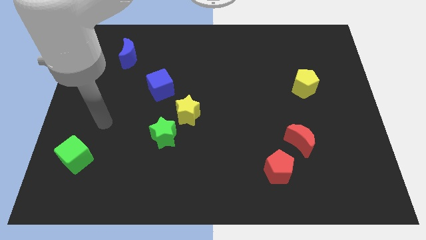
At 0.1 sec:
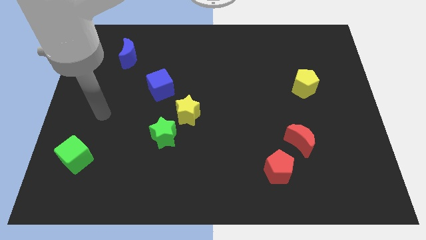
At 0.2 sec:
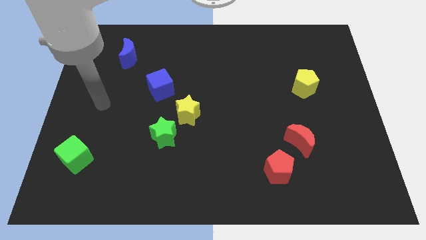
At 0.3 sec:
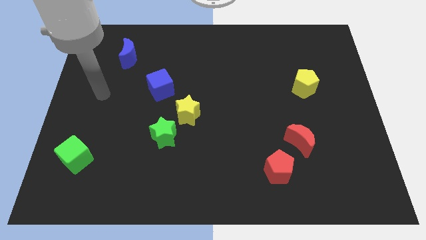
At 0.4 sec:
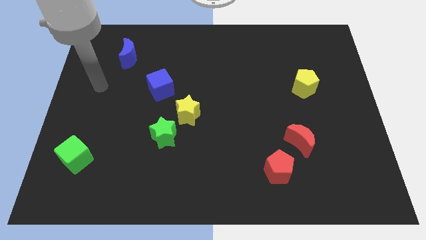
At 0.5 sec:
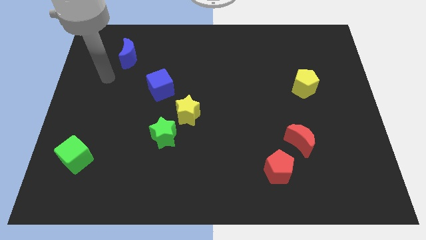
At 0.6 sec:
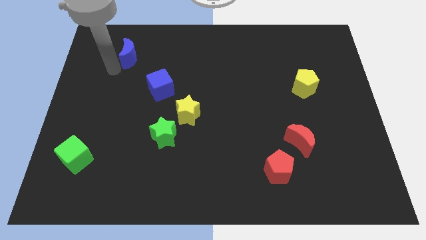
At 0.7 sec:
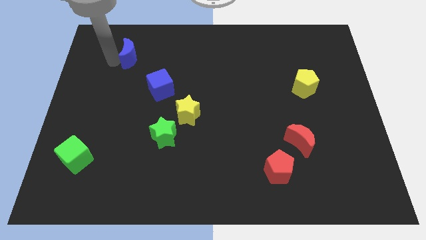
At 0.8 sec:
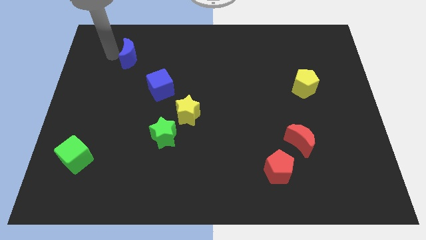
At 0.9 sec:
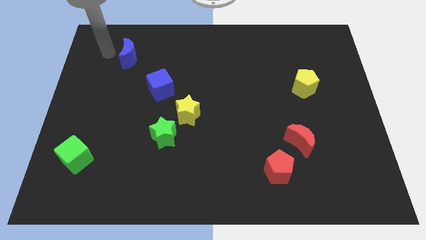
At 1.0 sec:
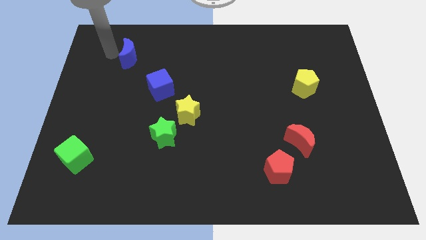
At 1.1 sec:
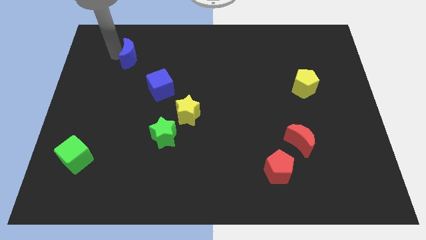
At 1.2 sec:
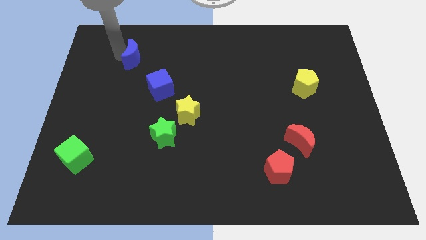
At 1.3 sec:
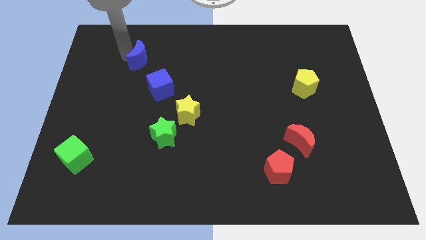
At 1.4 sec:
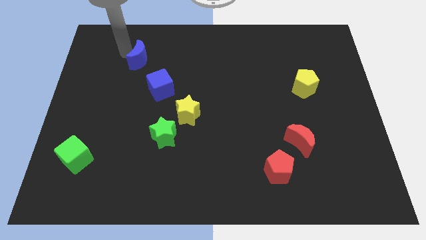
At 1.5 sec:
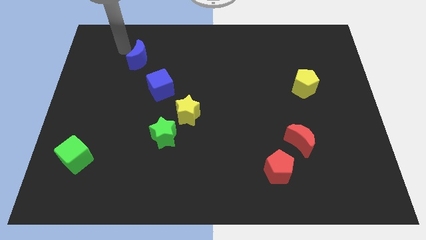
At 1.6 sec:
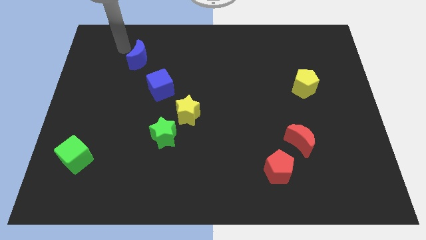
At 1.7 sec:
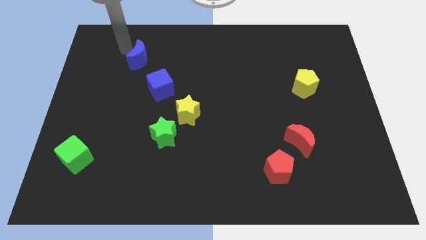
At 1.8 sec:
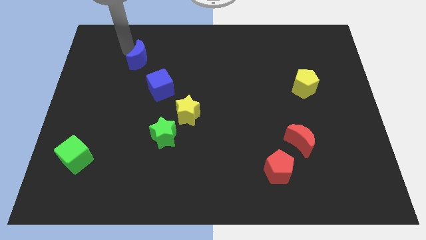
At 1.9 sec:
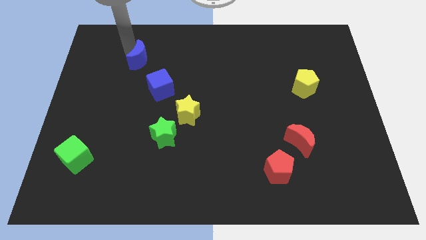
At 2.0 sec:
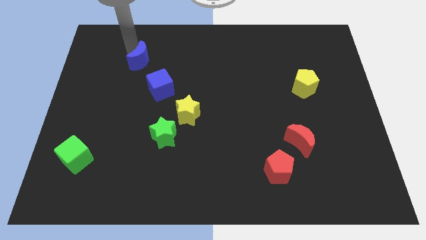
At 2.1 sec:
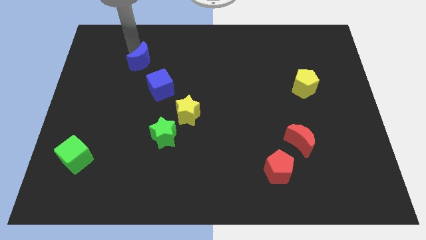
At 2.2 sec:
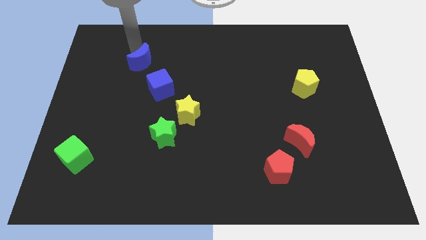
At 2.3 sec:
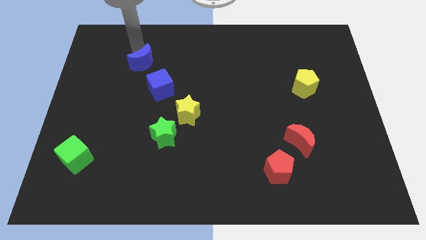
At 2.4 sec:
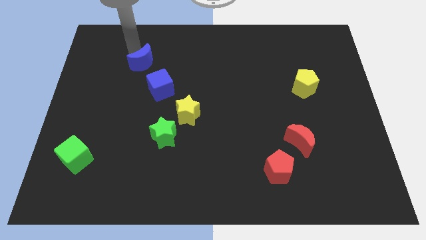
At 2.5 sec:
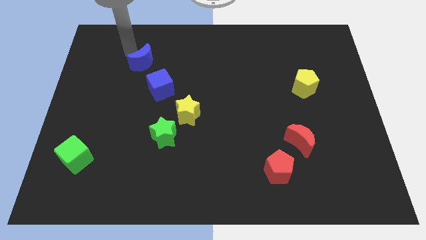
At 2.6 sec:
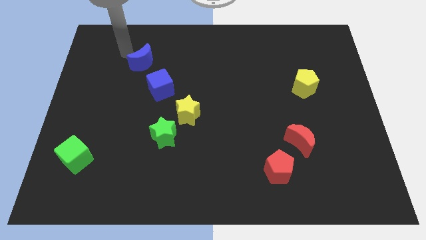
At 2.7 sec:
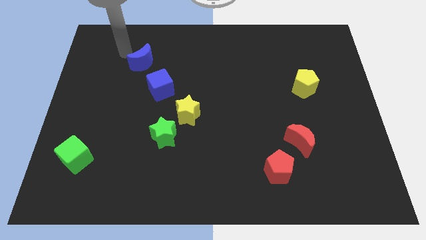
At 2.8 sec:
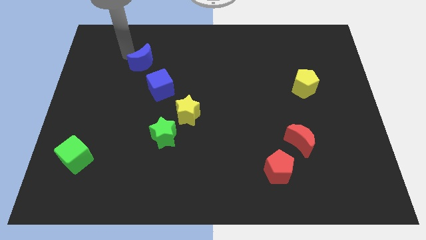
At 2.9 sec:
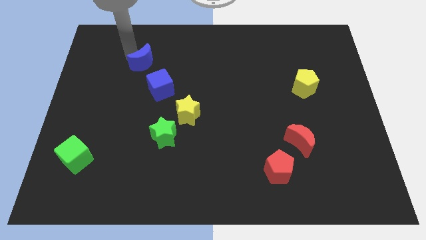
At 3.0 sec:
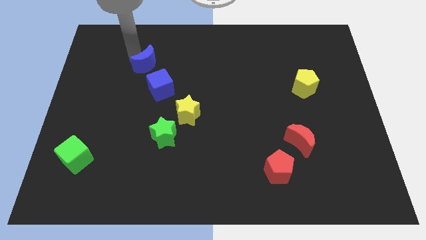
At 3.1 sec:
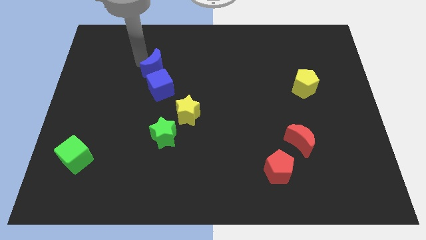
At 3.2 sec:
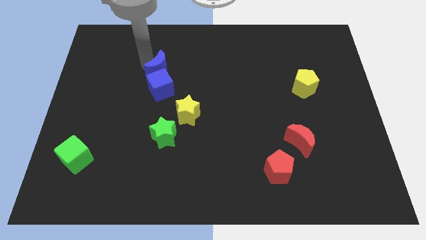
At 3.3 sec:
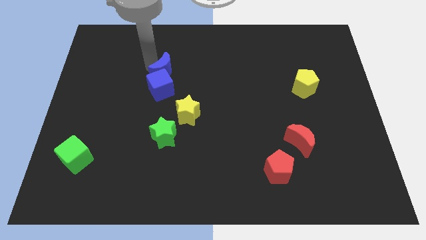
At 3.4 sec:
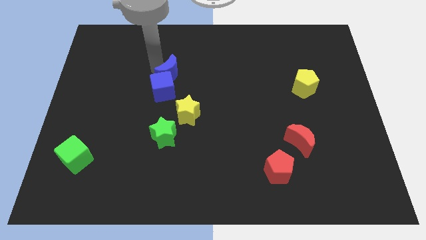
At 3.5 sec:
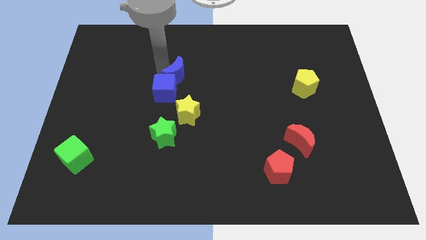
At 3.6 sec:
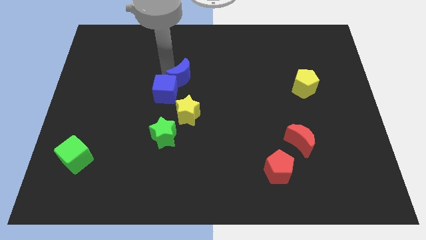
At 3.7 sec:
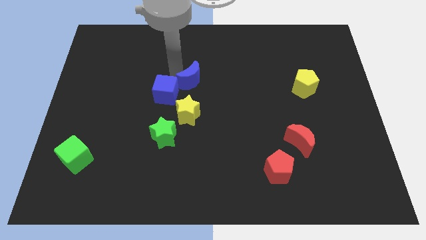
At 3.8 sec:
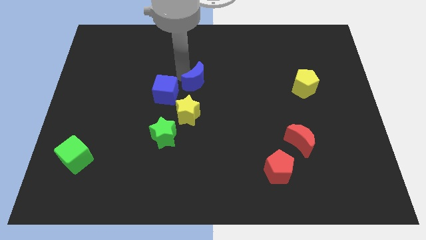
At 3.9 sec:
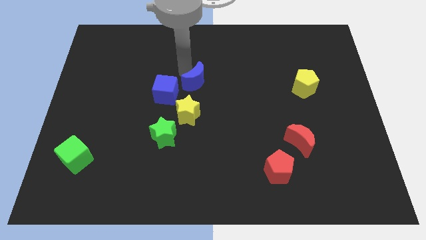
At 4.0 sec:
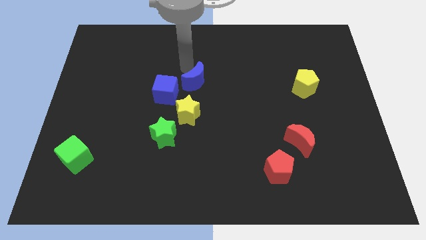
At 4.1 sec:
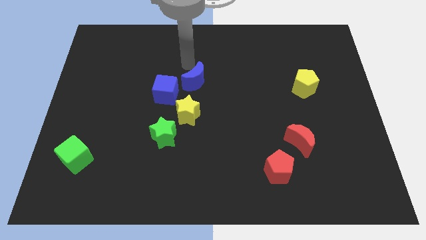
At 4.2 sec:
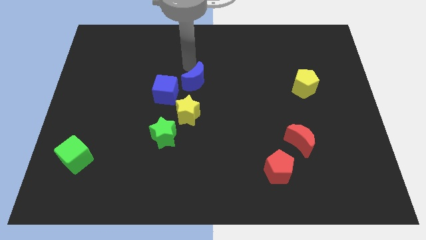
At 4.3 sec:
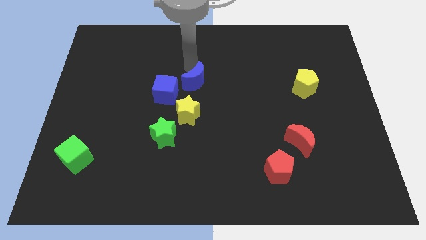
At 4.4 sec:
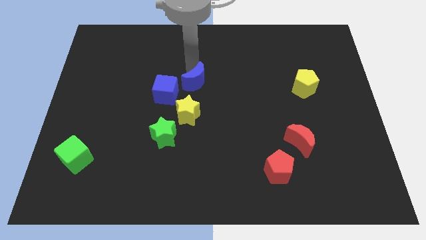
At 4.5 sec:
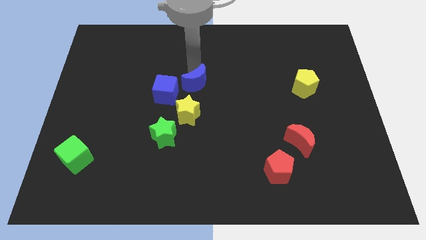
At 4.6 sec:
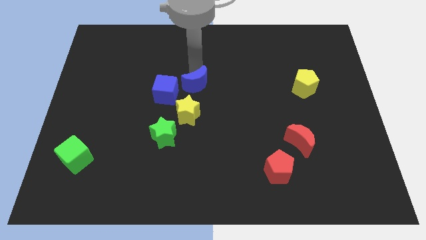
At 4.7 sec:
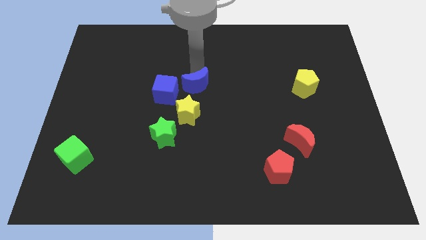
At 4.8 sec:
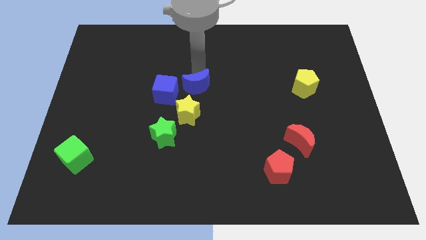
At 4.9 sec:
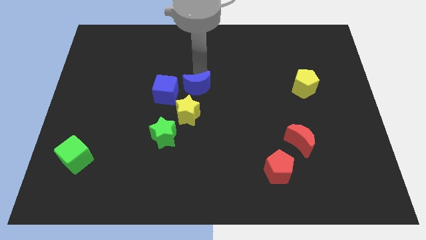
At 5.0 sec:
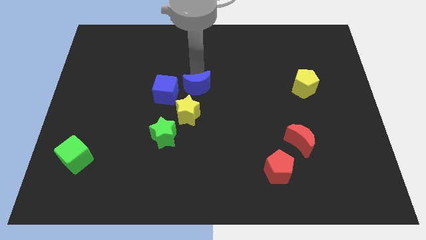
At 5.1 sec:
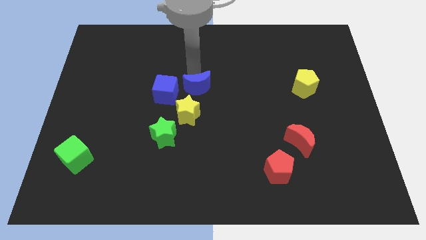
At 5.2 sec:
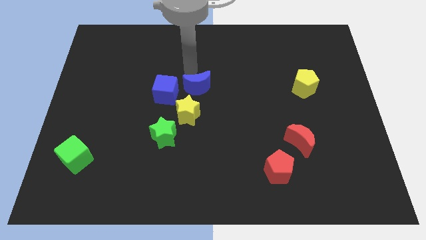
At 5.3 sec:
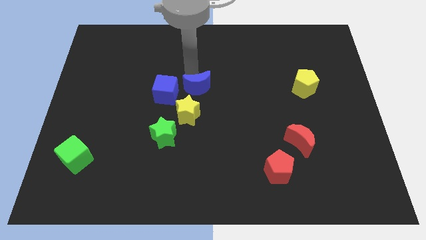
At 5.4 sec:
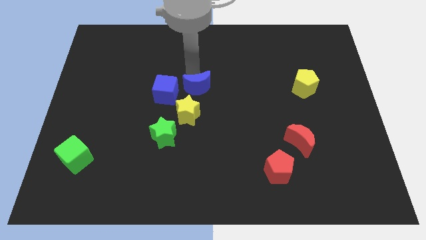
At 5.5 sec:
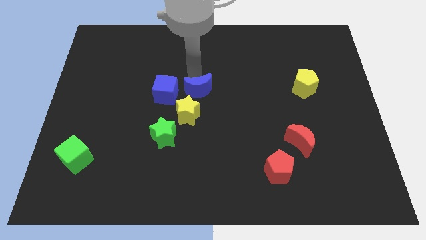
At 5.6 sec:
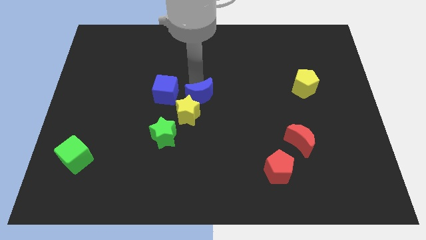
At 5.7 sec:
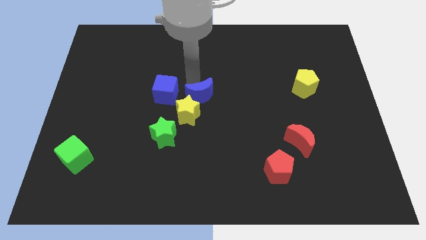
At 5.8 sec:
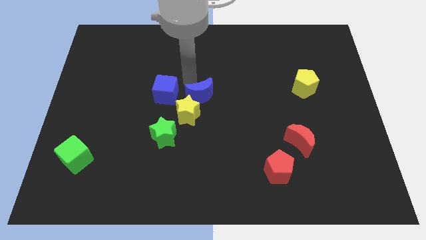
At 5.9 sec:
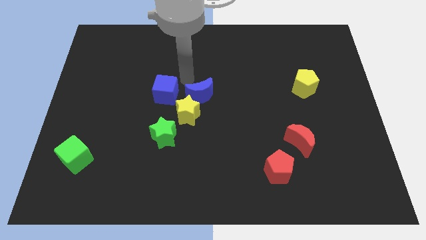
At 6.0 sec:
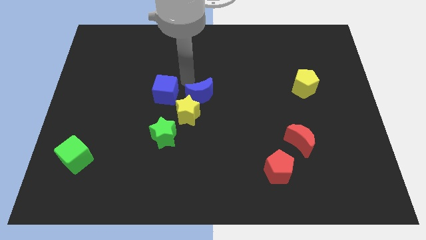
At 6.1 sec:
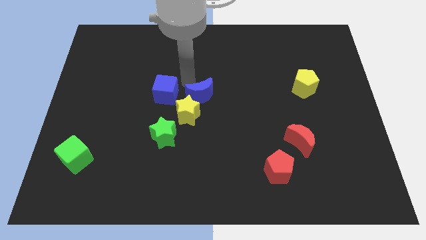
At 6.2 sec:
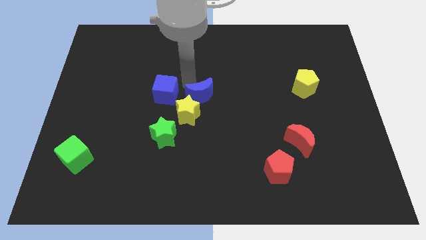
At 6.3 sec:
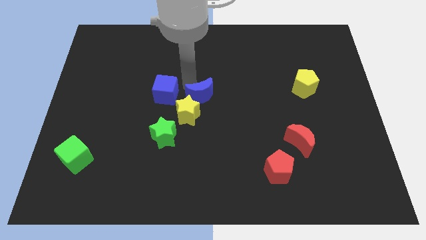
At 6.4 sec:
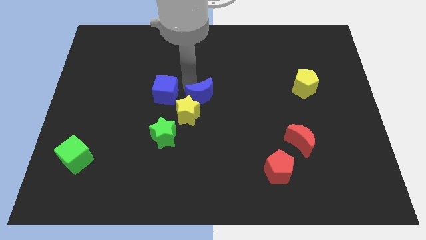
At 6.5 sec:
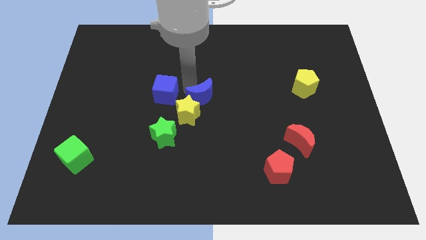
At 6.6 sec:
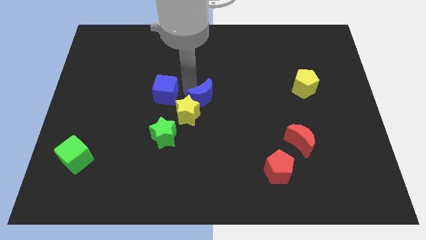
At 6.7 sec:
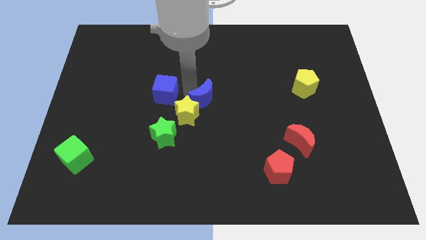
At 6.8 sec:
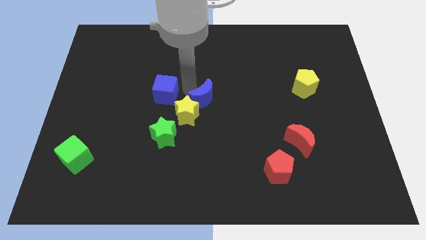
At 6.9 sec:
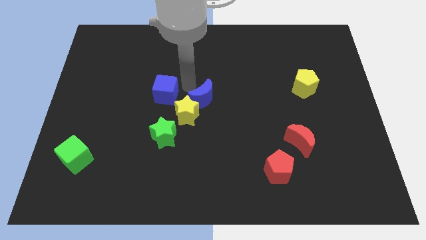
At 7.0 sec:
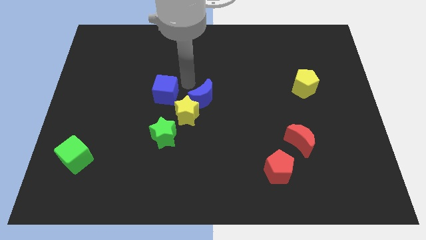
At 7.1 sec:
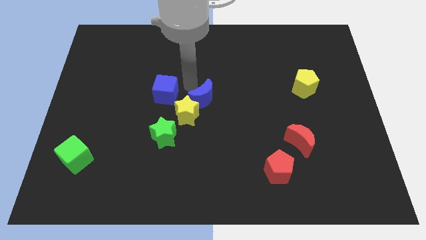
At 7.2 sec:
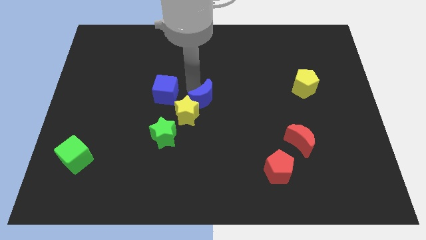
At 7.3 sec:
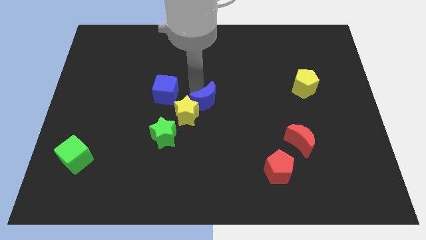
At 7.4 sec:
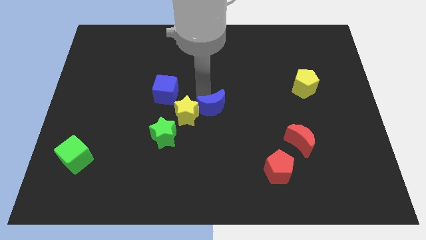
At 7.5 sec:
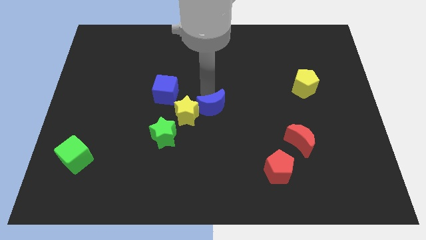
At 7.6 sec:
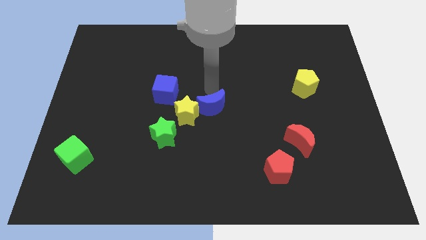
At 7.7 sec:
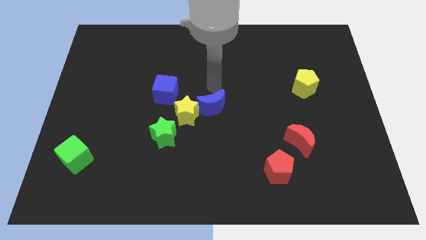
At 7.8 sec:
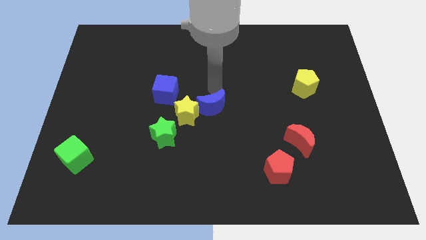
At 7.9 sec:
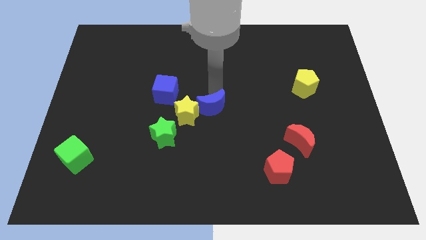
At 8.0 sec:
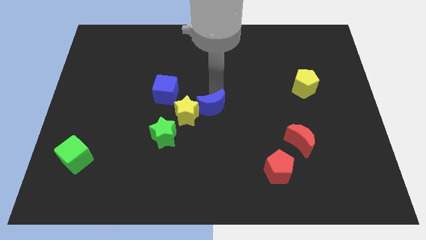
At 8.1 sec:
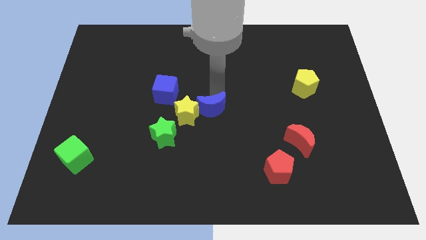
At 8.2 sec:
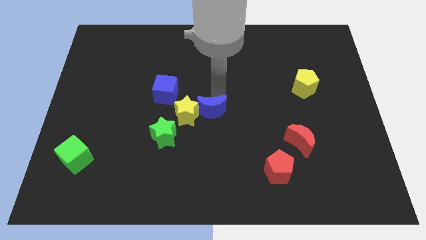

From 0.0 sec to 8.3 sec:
put the blue moon to the bottom right of the yellow star
